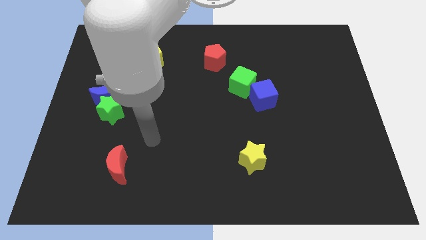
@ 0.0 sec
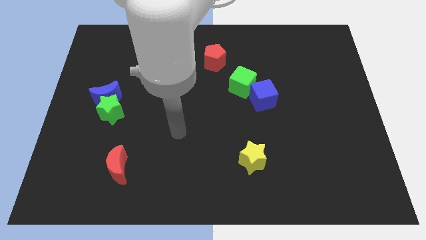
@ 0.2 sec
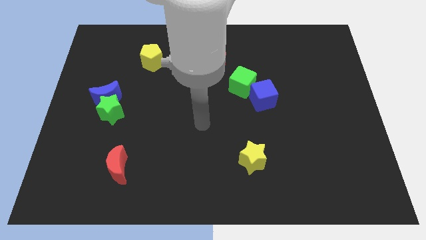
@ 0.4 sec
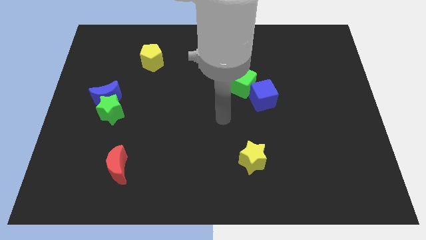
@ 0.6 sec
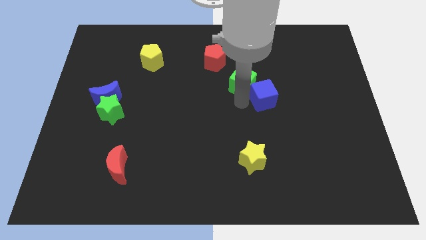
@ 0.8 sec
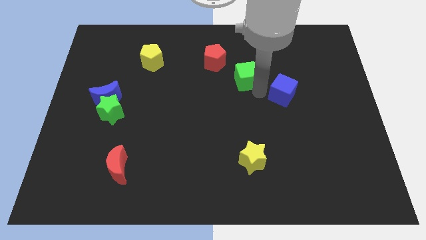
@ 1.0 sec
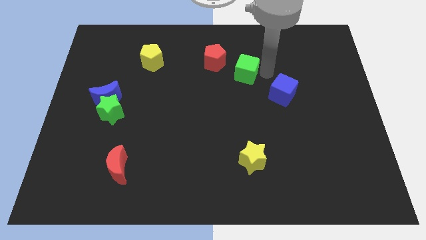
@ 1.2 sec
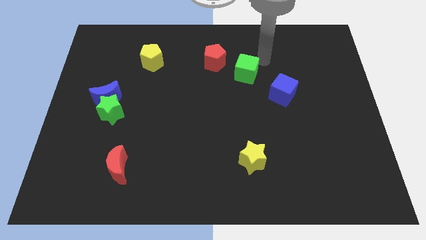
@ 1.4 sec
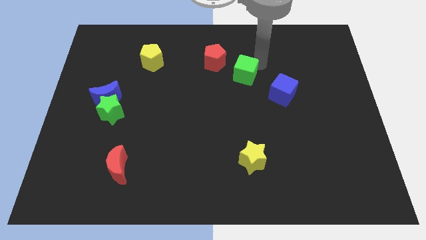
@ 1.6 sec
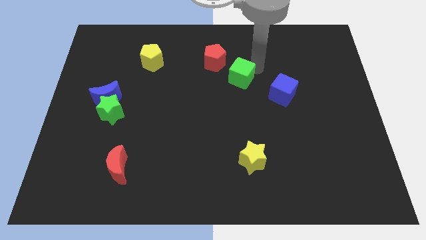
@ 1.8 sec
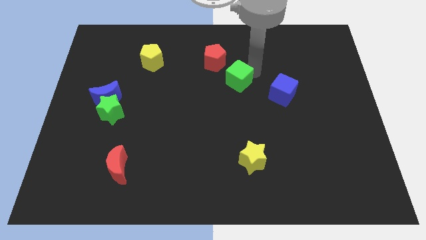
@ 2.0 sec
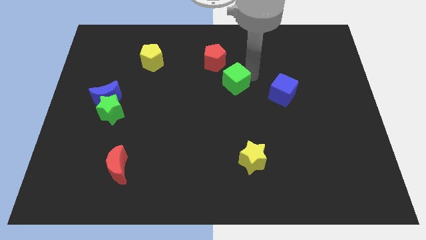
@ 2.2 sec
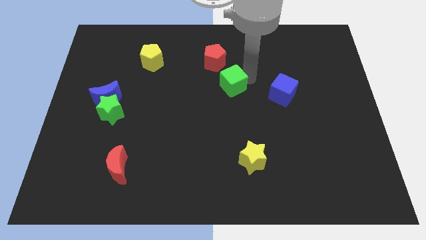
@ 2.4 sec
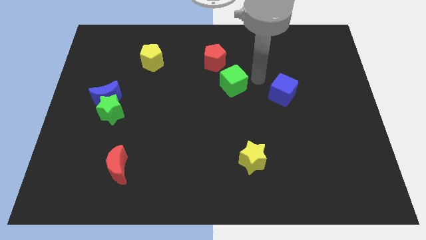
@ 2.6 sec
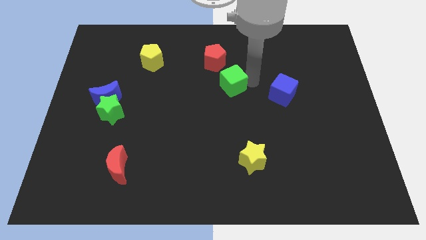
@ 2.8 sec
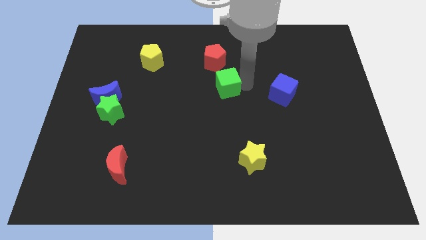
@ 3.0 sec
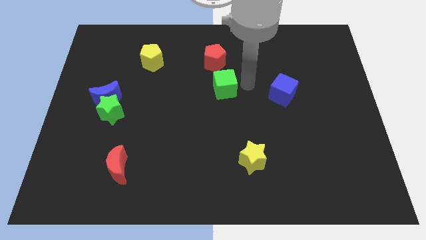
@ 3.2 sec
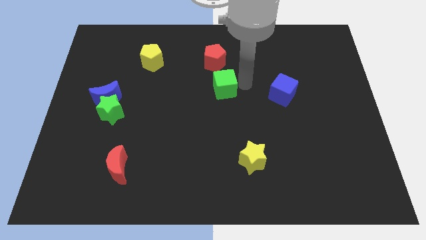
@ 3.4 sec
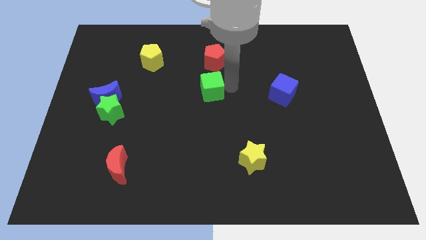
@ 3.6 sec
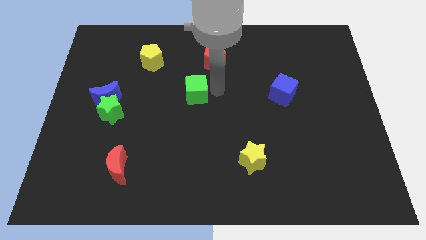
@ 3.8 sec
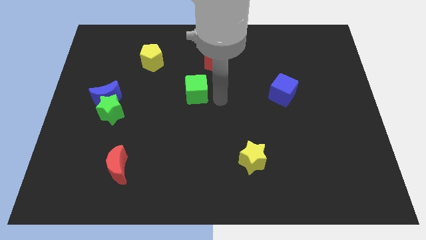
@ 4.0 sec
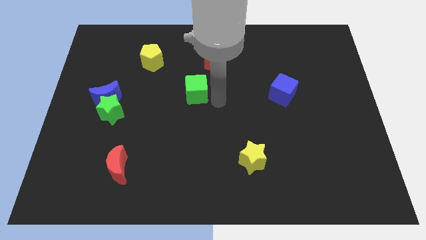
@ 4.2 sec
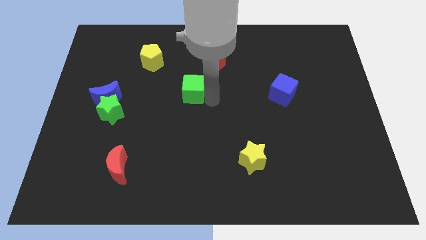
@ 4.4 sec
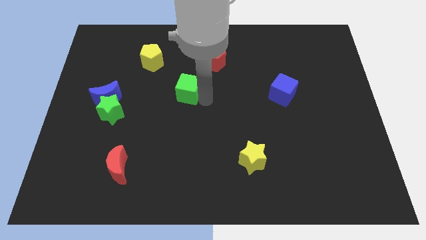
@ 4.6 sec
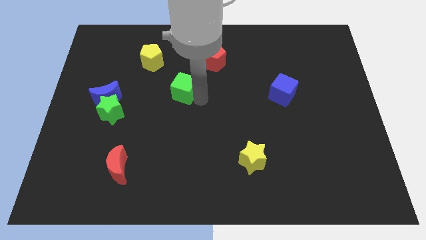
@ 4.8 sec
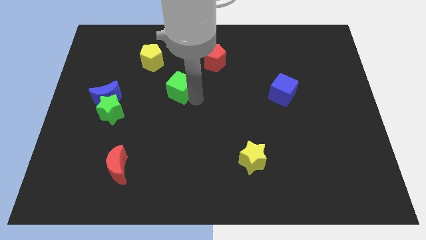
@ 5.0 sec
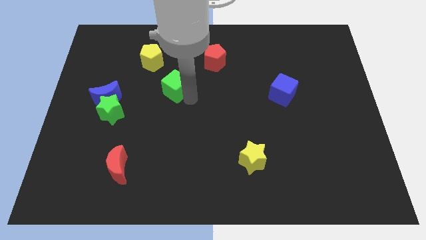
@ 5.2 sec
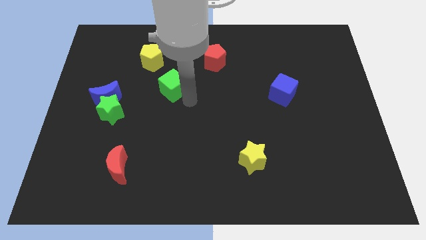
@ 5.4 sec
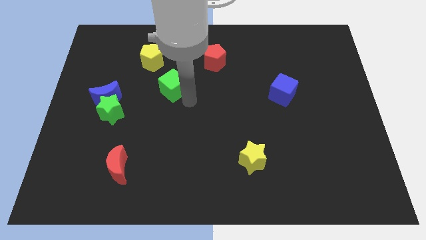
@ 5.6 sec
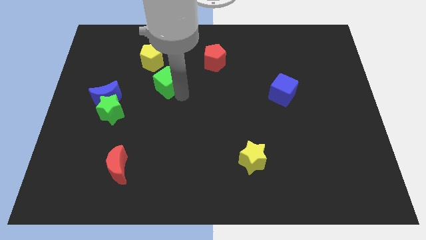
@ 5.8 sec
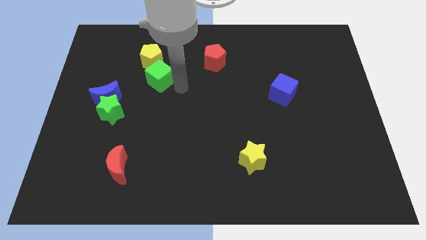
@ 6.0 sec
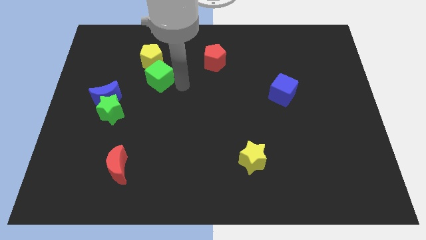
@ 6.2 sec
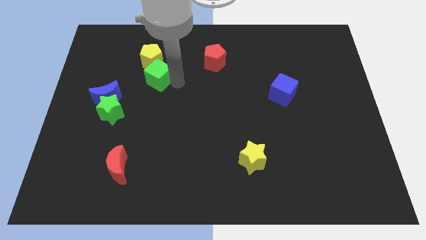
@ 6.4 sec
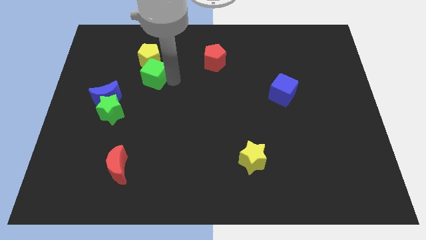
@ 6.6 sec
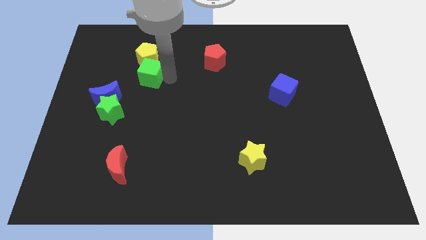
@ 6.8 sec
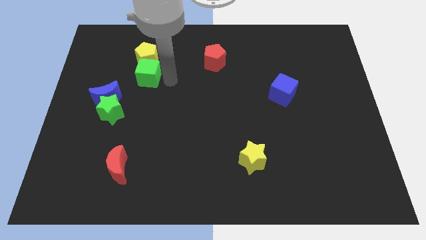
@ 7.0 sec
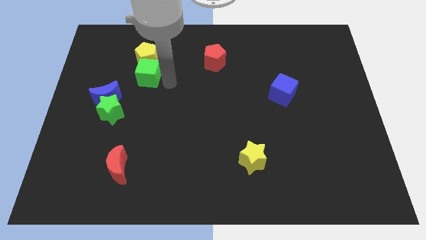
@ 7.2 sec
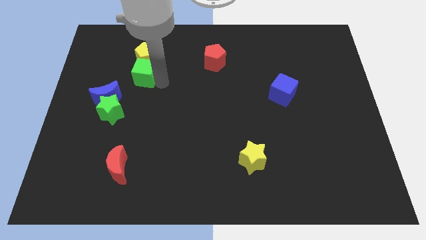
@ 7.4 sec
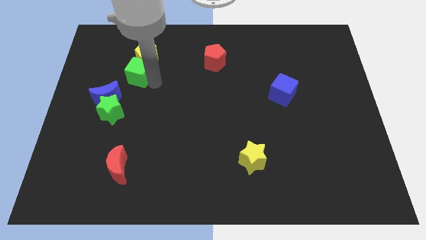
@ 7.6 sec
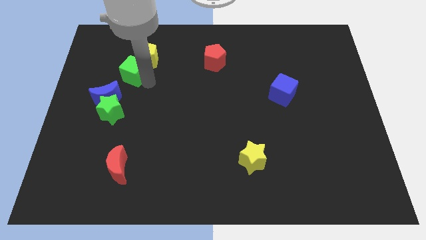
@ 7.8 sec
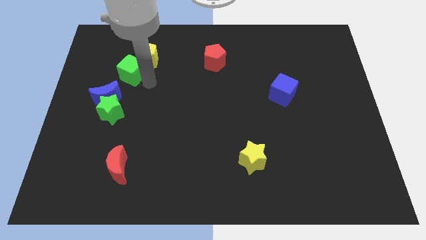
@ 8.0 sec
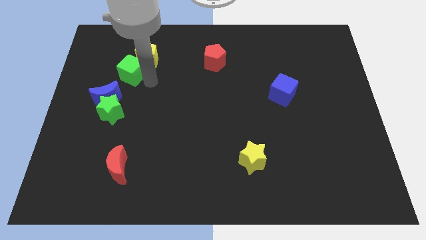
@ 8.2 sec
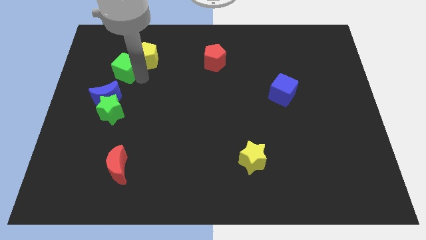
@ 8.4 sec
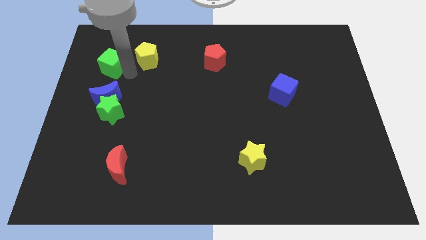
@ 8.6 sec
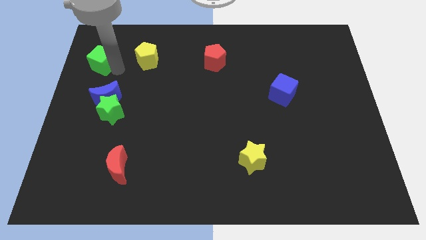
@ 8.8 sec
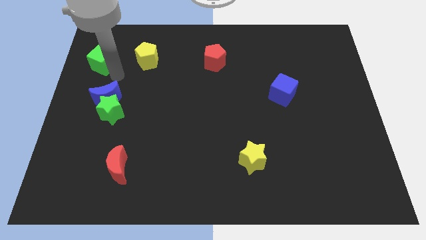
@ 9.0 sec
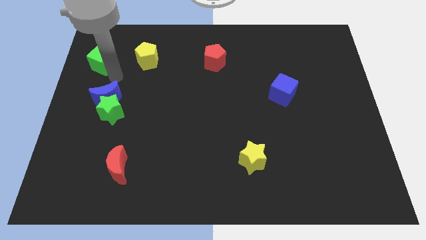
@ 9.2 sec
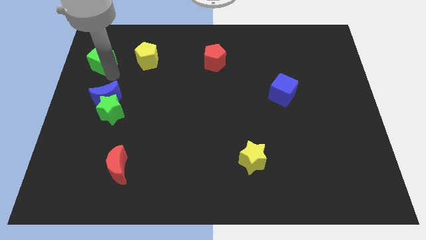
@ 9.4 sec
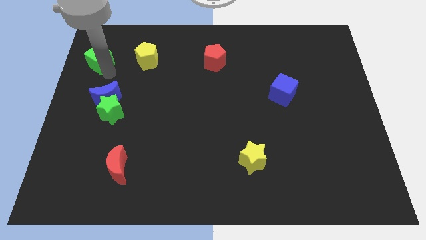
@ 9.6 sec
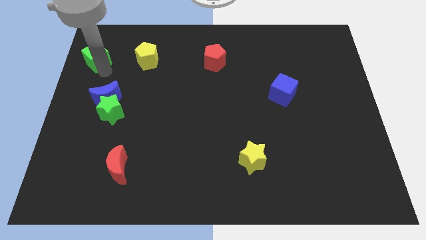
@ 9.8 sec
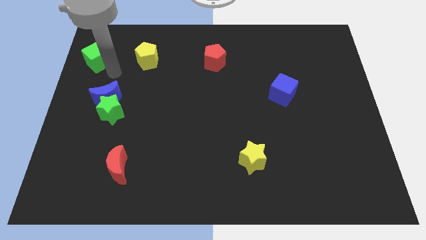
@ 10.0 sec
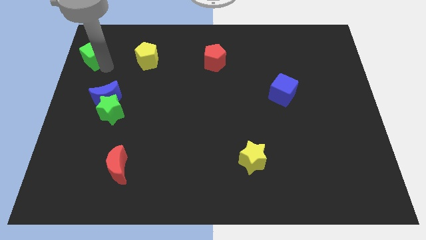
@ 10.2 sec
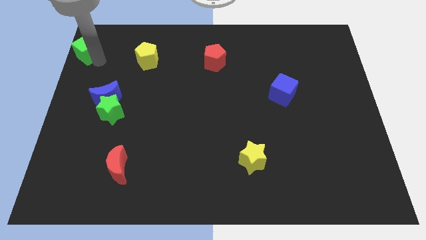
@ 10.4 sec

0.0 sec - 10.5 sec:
put the green cube to the top left of the board

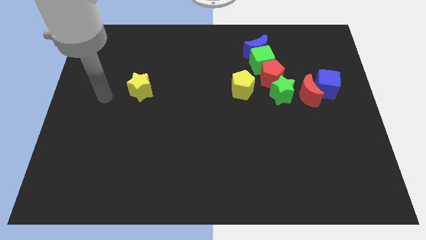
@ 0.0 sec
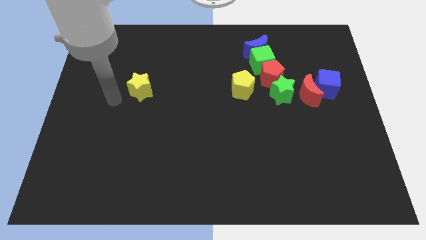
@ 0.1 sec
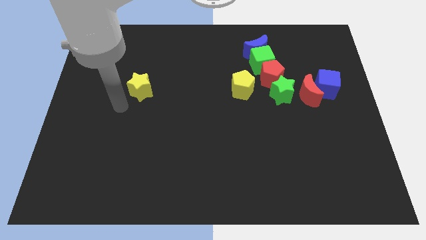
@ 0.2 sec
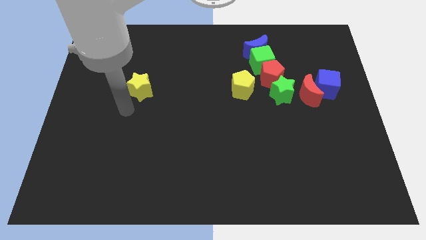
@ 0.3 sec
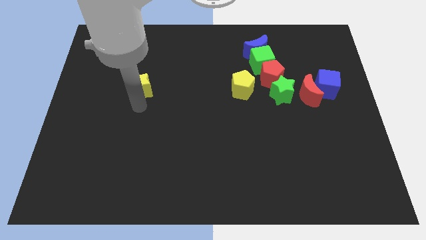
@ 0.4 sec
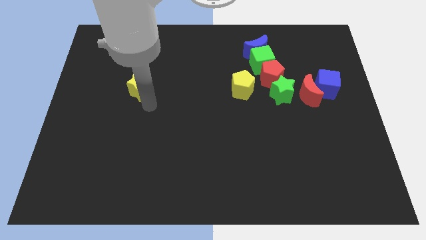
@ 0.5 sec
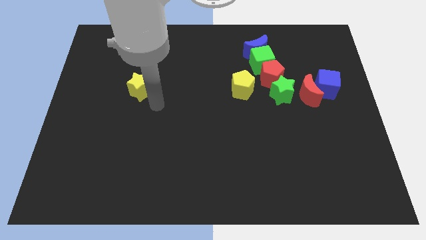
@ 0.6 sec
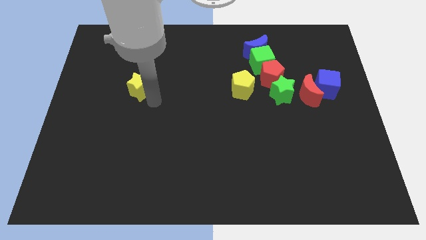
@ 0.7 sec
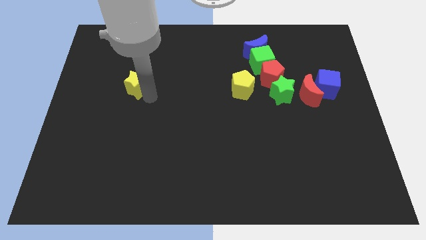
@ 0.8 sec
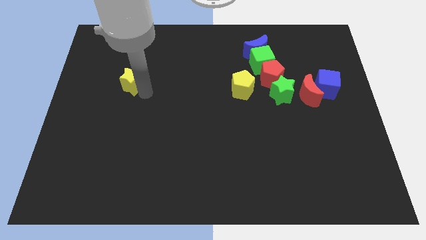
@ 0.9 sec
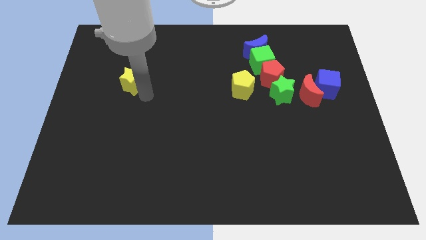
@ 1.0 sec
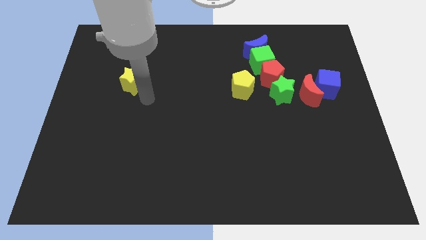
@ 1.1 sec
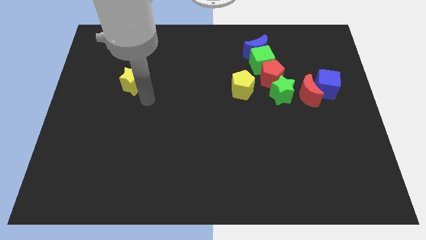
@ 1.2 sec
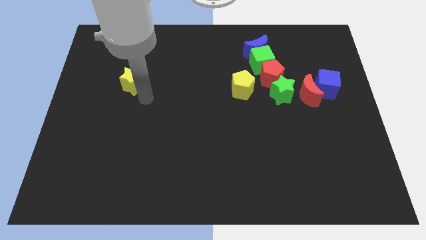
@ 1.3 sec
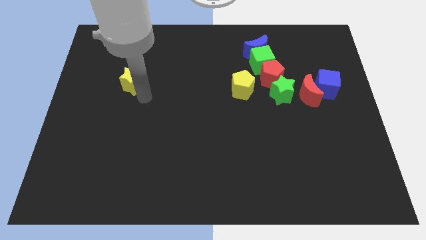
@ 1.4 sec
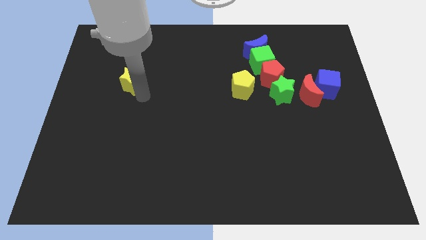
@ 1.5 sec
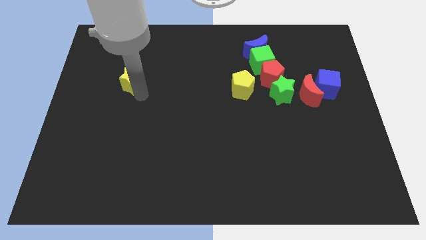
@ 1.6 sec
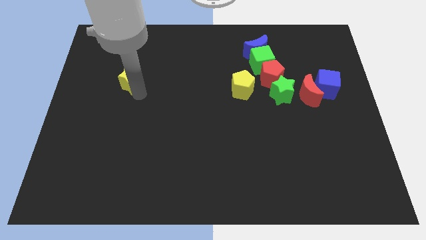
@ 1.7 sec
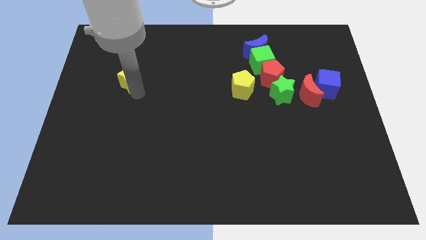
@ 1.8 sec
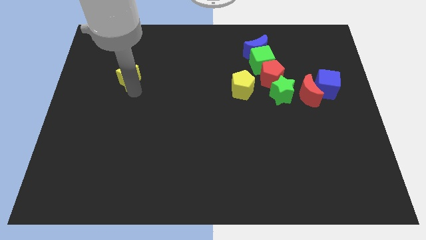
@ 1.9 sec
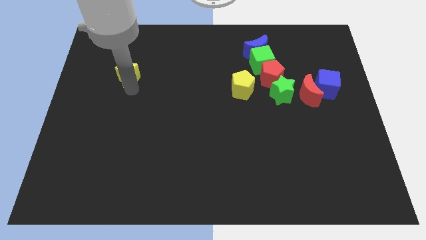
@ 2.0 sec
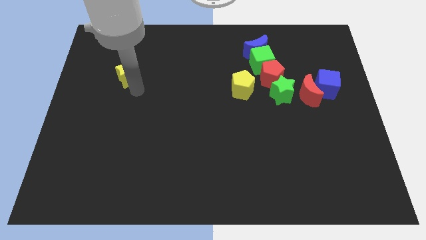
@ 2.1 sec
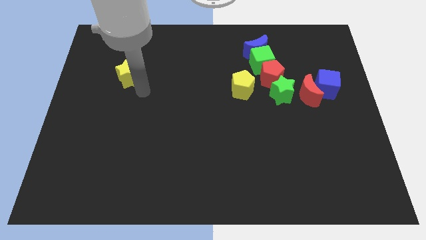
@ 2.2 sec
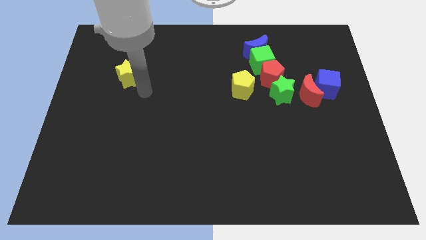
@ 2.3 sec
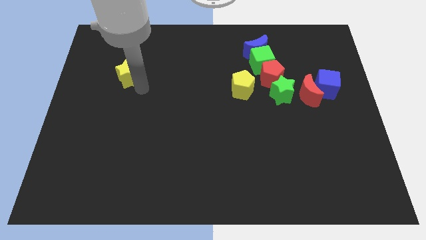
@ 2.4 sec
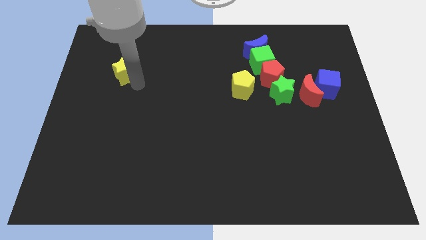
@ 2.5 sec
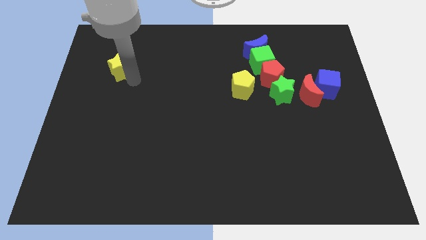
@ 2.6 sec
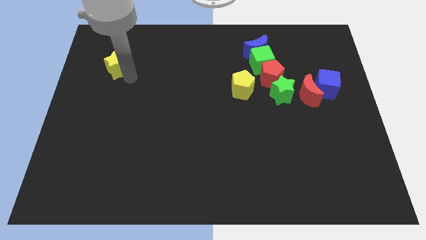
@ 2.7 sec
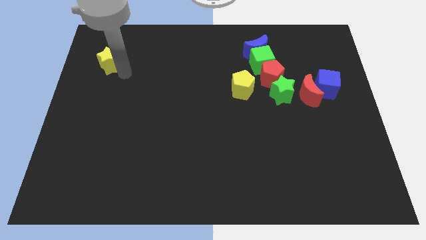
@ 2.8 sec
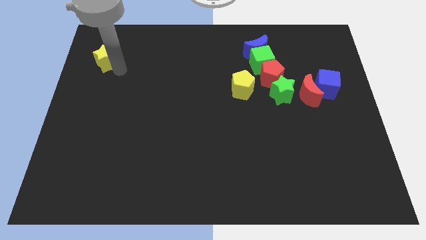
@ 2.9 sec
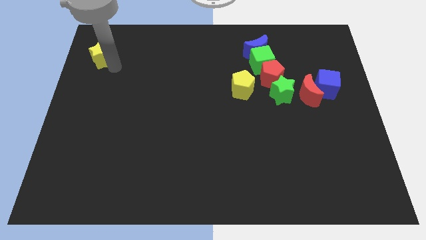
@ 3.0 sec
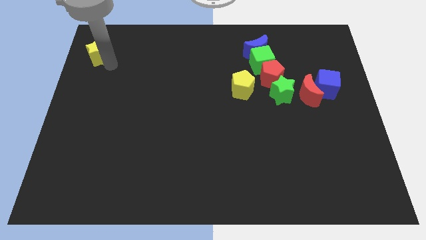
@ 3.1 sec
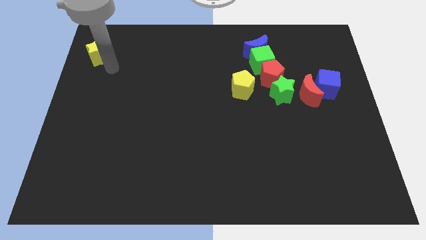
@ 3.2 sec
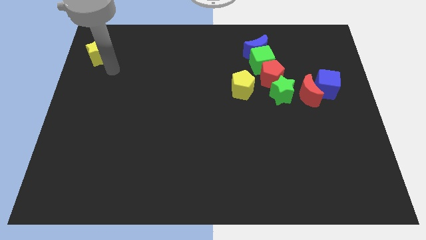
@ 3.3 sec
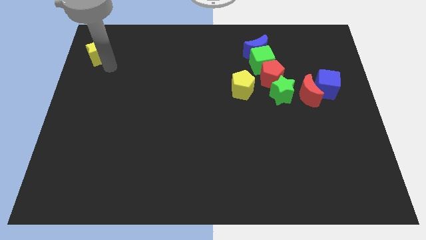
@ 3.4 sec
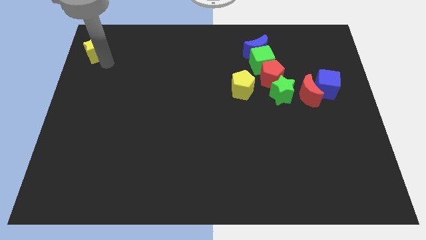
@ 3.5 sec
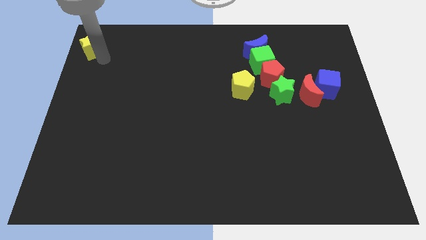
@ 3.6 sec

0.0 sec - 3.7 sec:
move the yellow star to the top left corner
